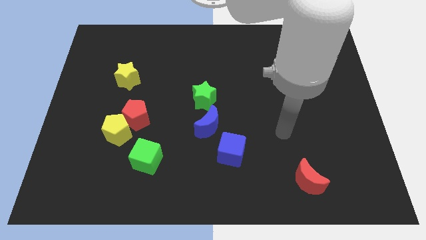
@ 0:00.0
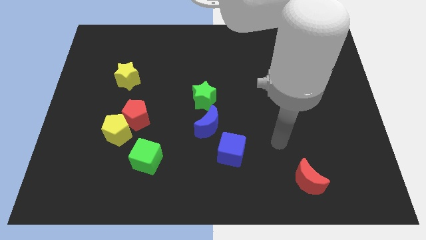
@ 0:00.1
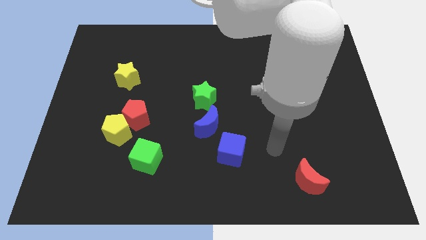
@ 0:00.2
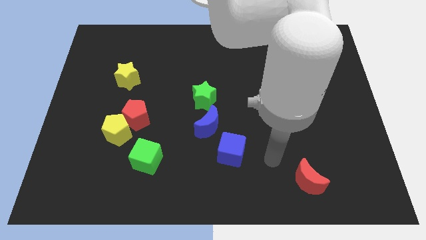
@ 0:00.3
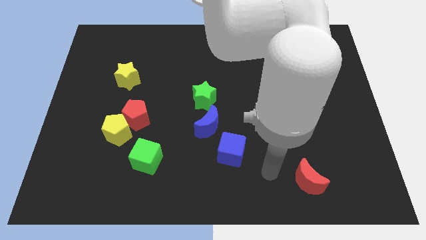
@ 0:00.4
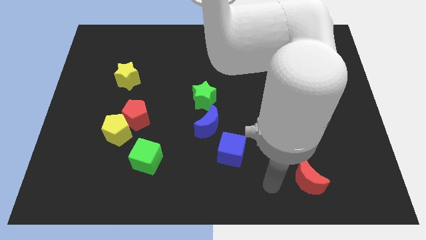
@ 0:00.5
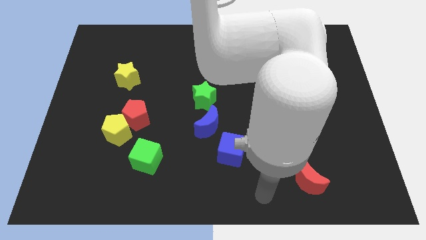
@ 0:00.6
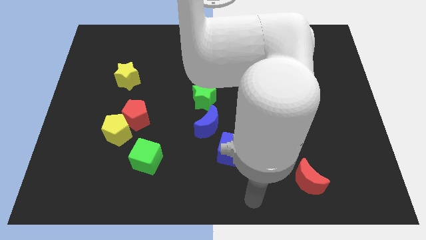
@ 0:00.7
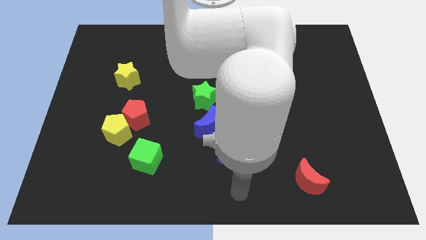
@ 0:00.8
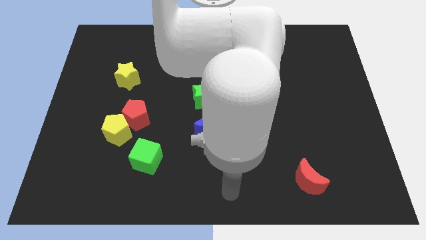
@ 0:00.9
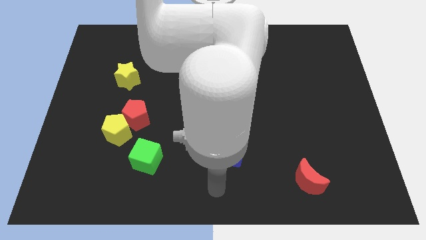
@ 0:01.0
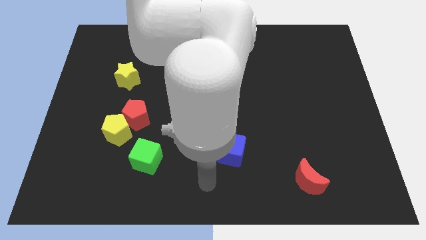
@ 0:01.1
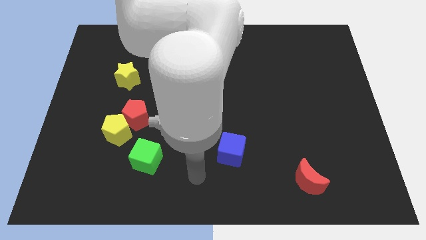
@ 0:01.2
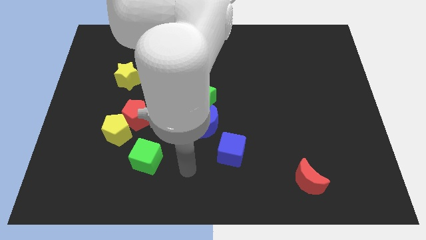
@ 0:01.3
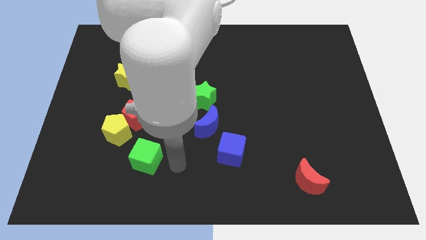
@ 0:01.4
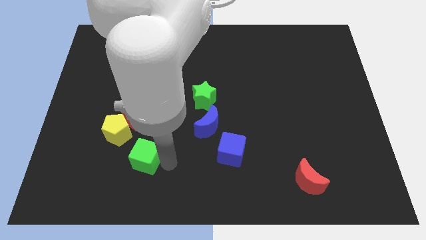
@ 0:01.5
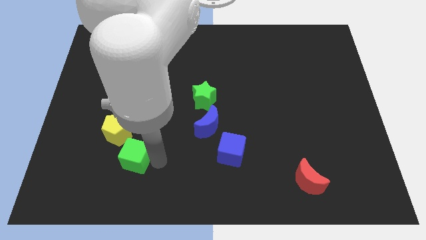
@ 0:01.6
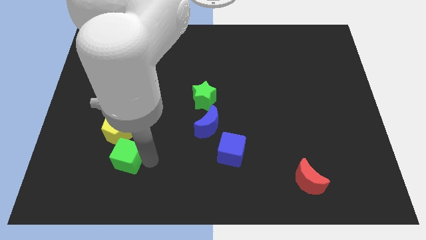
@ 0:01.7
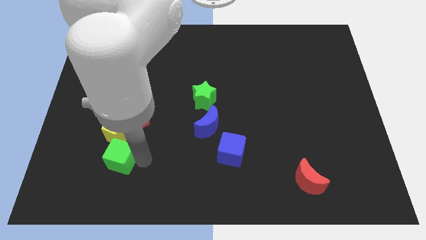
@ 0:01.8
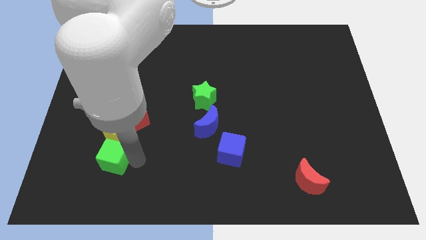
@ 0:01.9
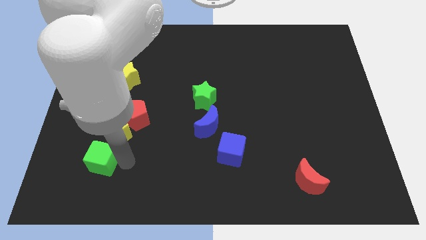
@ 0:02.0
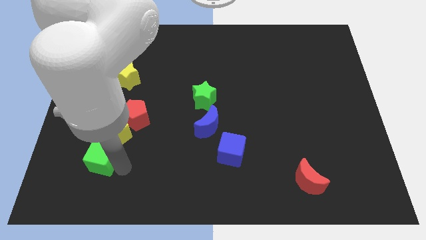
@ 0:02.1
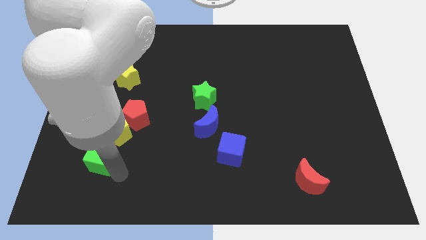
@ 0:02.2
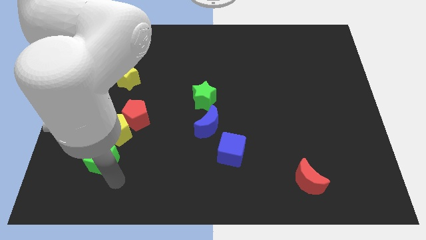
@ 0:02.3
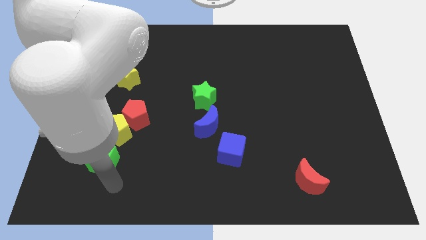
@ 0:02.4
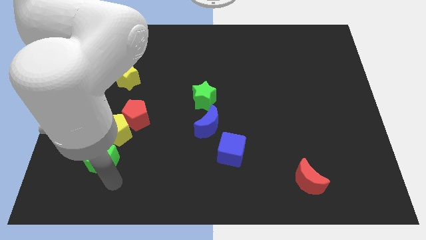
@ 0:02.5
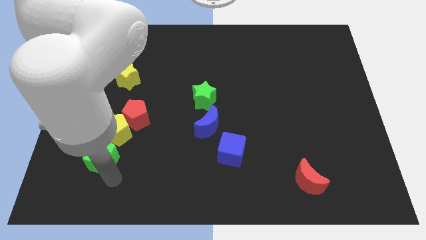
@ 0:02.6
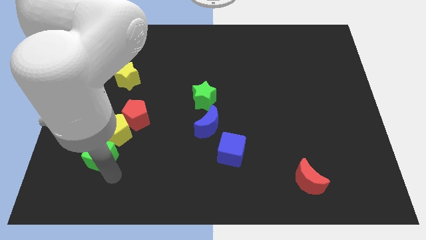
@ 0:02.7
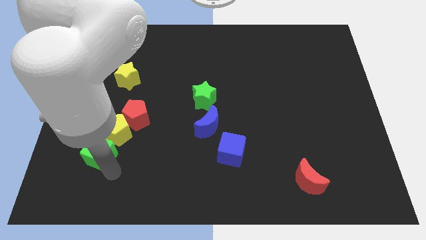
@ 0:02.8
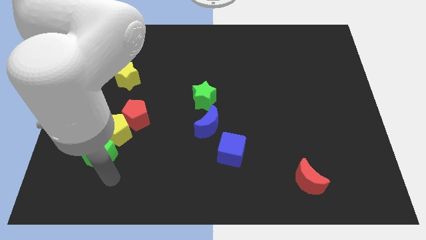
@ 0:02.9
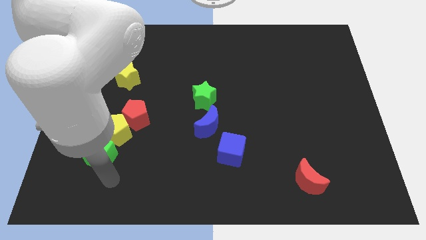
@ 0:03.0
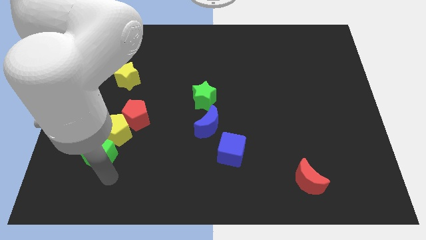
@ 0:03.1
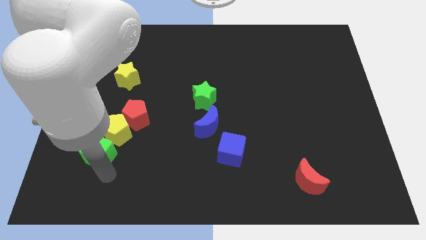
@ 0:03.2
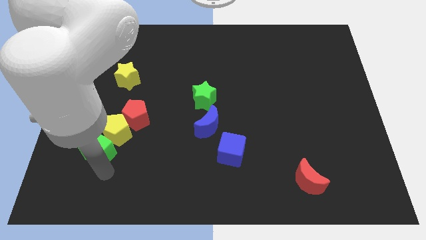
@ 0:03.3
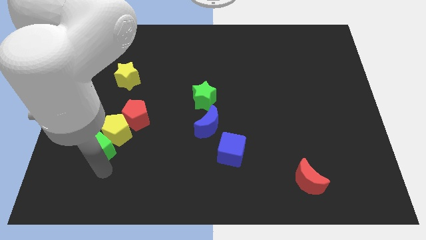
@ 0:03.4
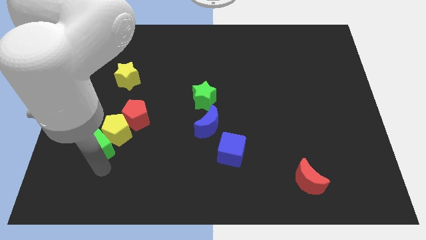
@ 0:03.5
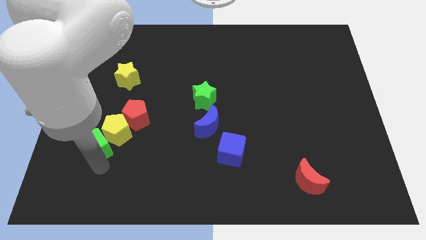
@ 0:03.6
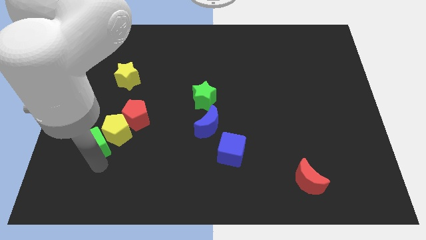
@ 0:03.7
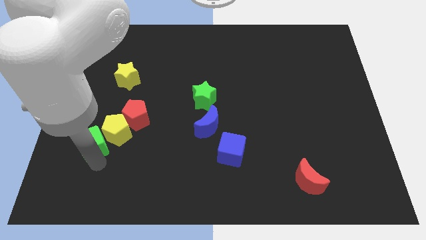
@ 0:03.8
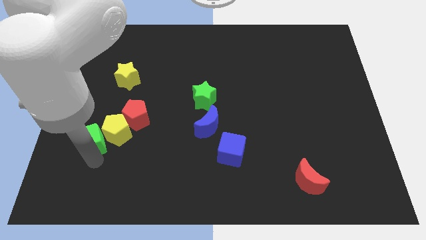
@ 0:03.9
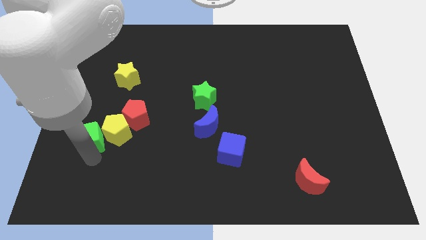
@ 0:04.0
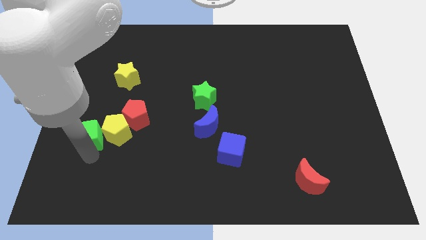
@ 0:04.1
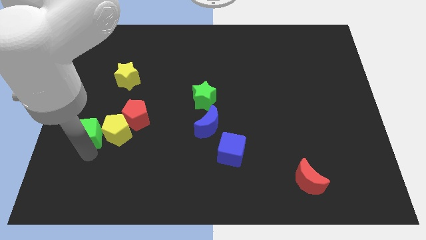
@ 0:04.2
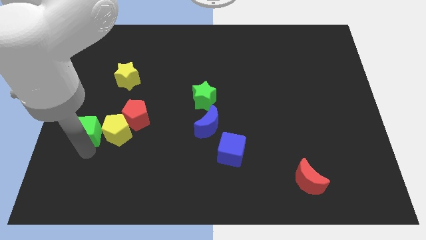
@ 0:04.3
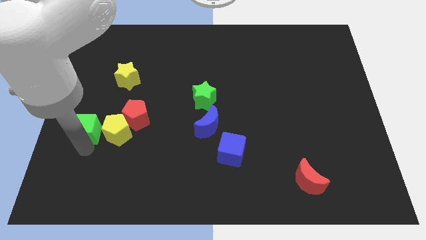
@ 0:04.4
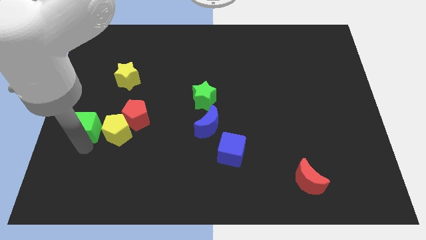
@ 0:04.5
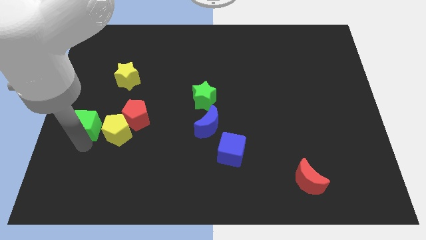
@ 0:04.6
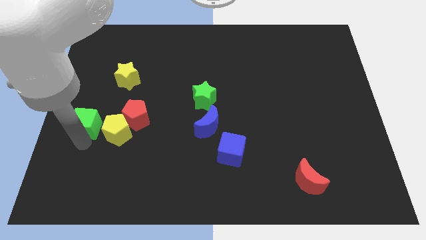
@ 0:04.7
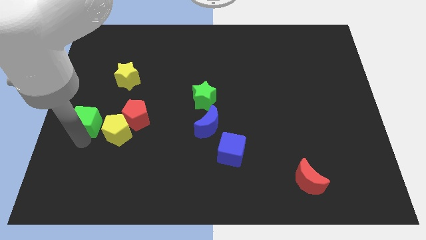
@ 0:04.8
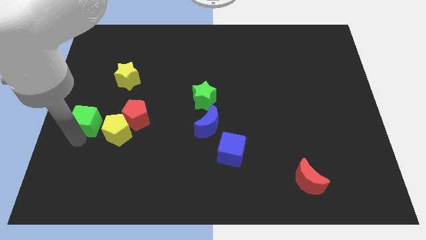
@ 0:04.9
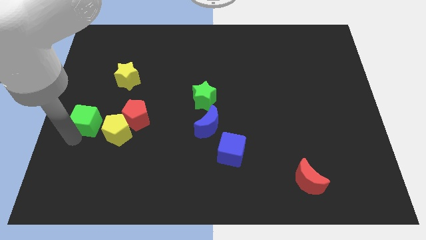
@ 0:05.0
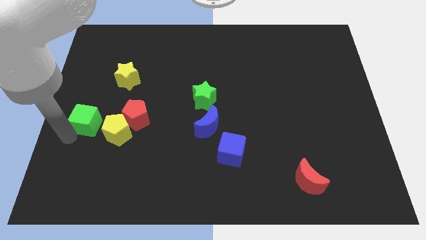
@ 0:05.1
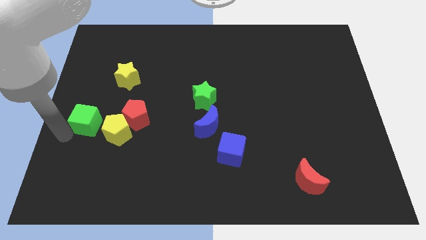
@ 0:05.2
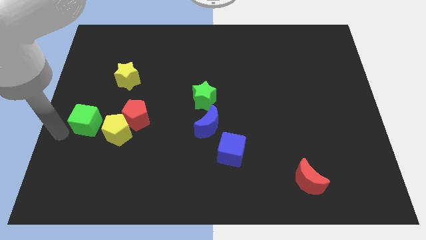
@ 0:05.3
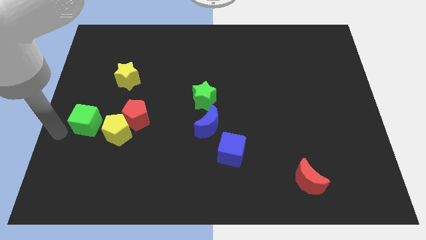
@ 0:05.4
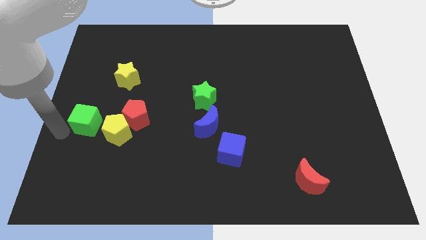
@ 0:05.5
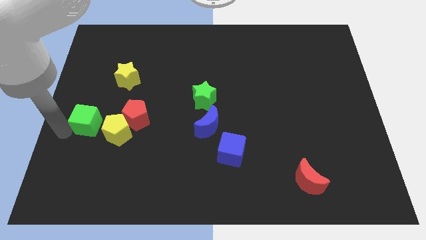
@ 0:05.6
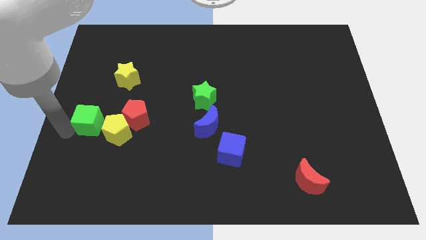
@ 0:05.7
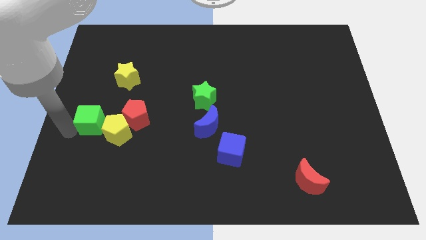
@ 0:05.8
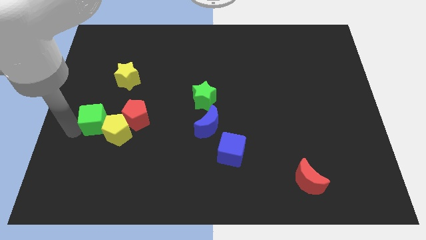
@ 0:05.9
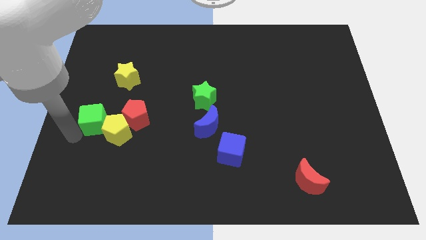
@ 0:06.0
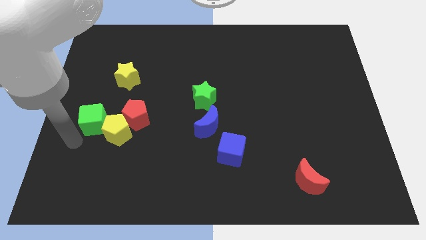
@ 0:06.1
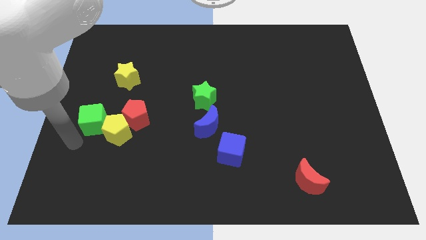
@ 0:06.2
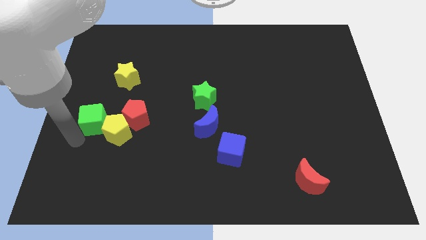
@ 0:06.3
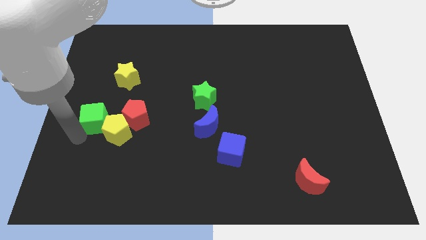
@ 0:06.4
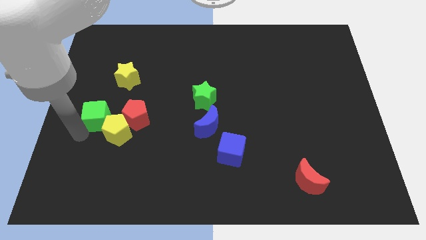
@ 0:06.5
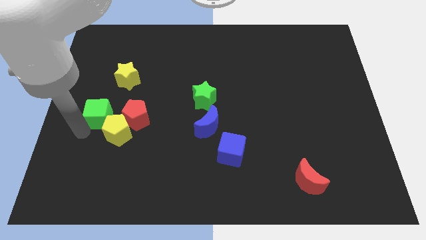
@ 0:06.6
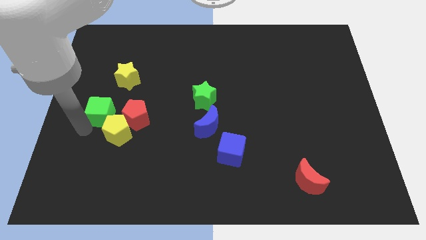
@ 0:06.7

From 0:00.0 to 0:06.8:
put the green cube to the top left of the red pentagon
